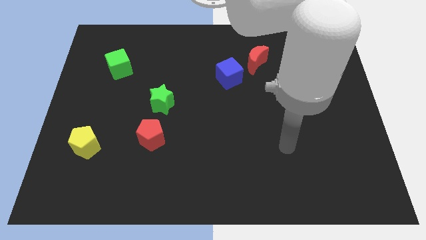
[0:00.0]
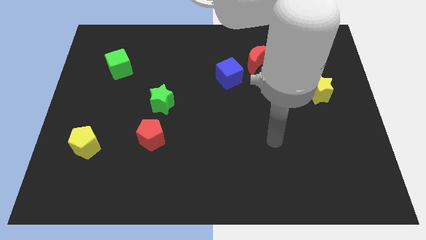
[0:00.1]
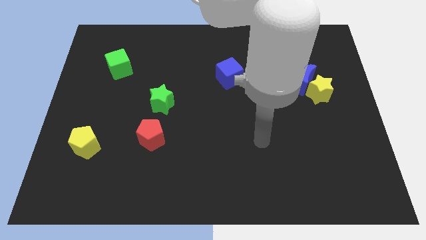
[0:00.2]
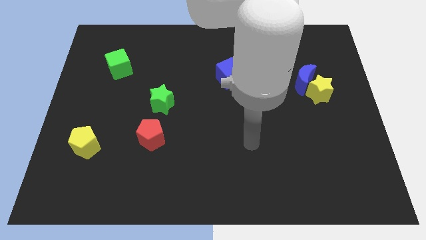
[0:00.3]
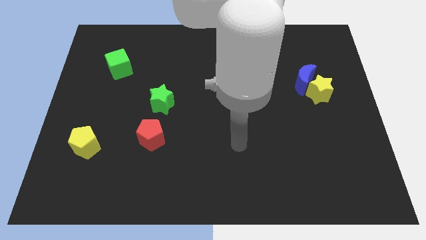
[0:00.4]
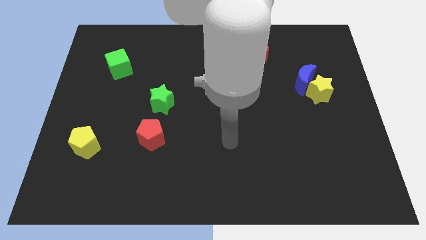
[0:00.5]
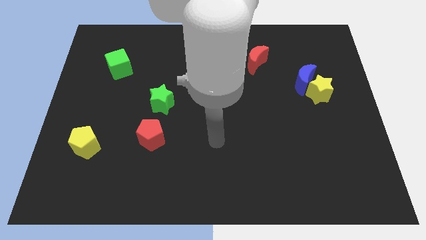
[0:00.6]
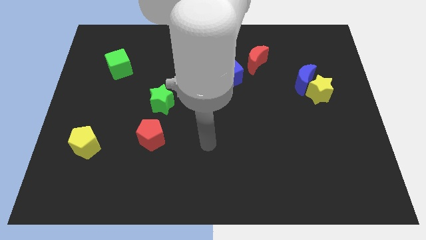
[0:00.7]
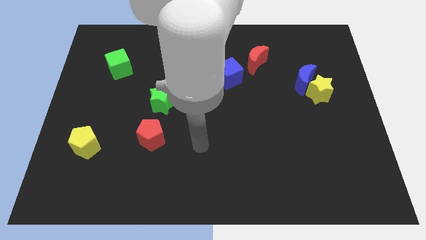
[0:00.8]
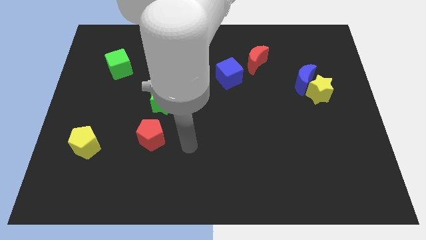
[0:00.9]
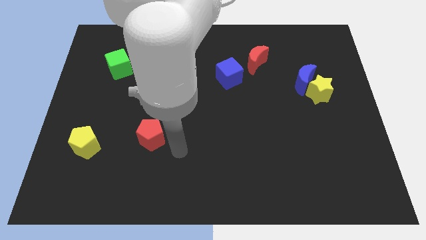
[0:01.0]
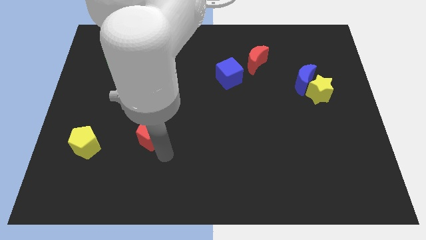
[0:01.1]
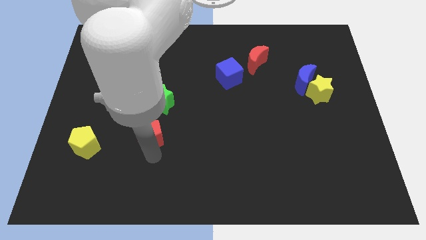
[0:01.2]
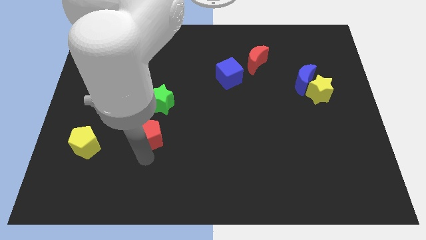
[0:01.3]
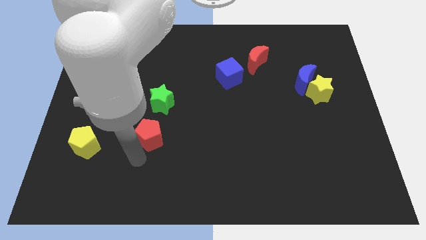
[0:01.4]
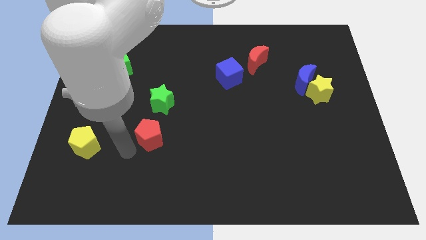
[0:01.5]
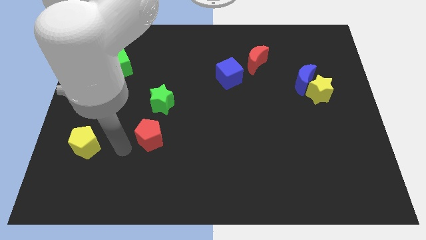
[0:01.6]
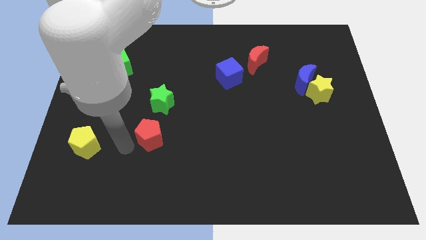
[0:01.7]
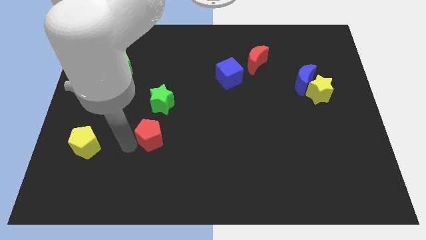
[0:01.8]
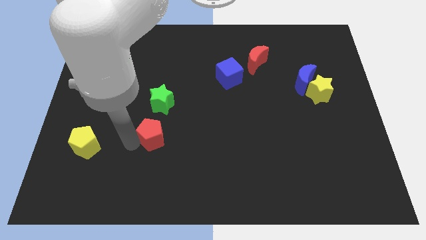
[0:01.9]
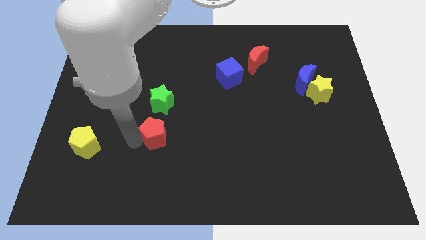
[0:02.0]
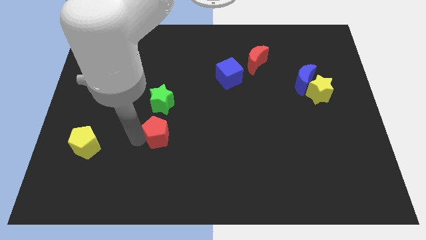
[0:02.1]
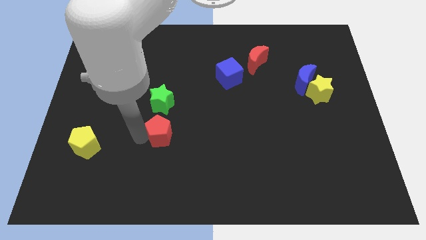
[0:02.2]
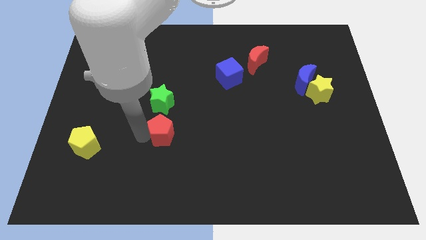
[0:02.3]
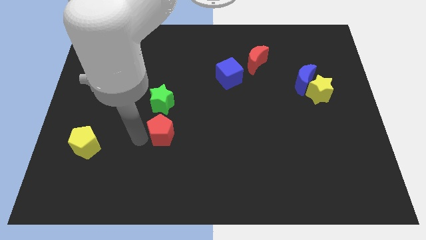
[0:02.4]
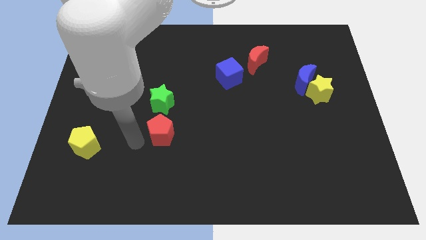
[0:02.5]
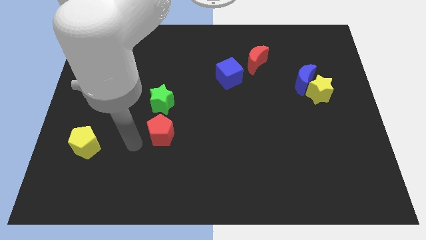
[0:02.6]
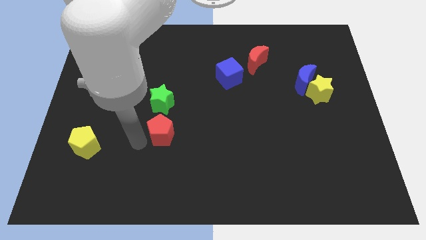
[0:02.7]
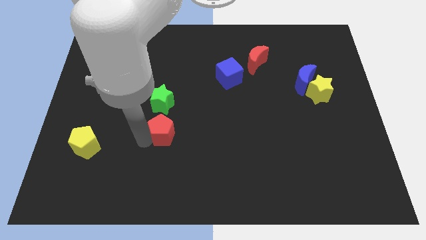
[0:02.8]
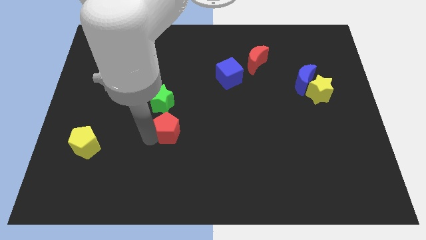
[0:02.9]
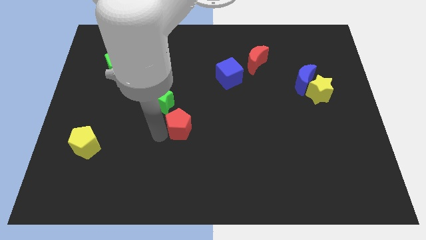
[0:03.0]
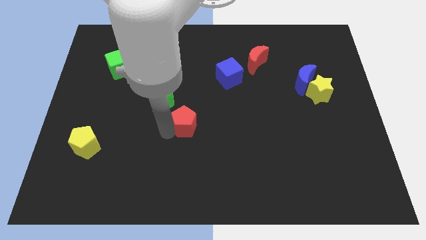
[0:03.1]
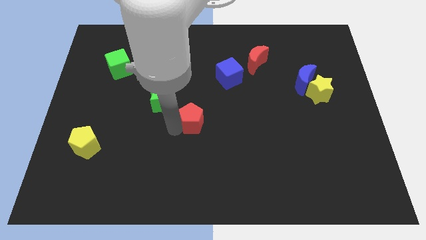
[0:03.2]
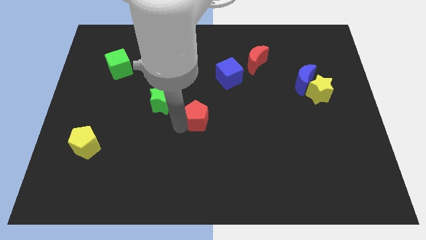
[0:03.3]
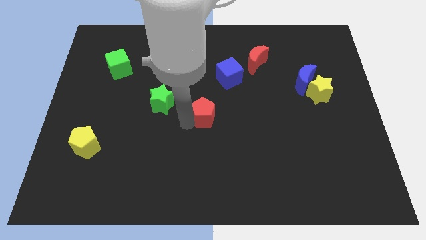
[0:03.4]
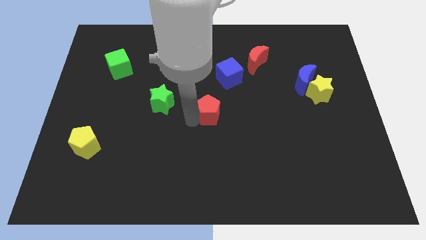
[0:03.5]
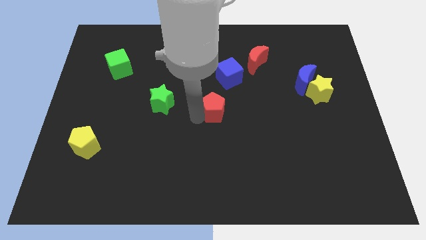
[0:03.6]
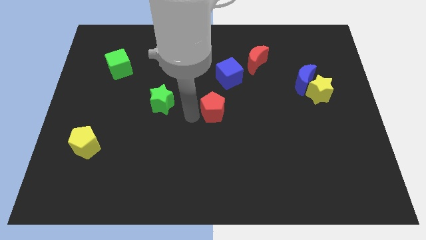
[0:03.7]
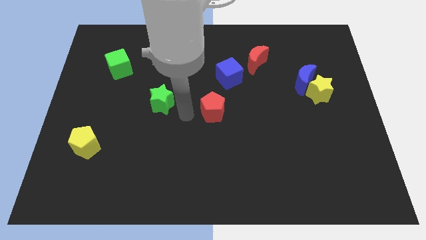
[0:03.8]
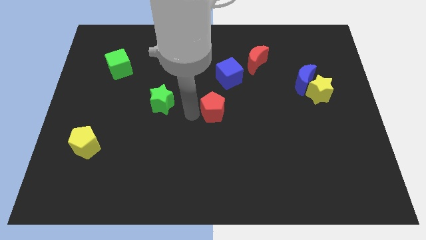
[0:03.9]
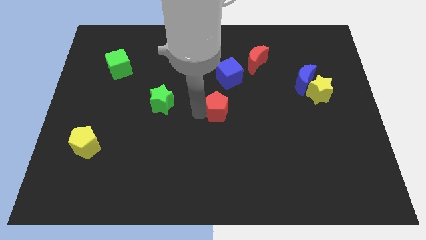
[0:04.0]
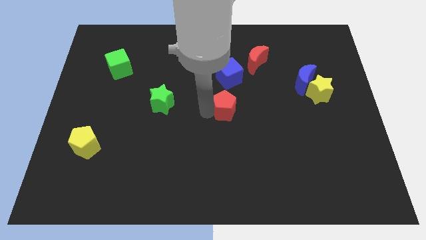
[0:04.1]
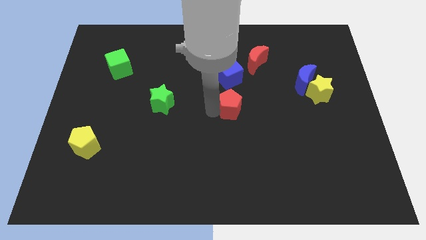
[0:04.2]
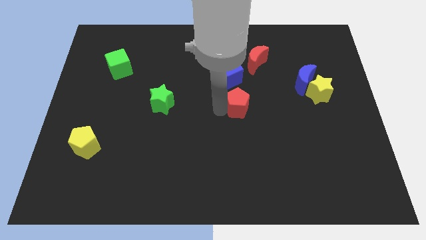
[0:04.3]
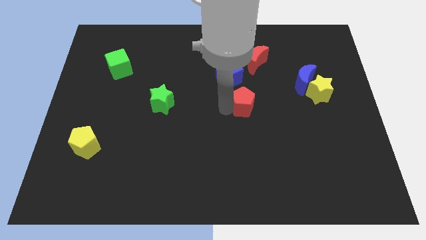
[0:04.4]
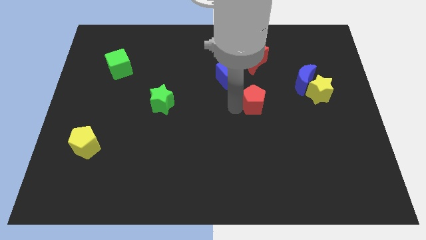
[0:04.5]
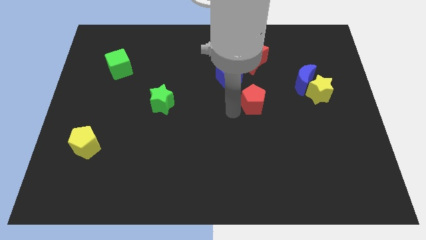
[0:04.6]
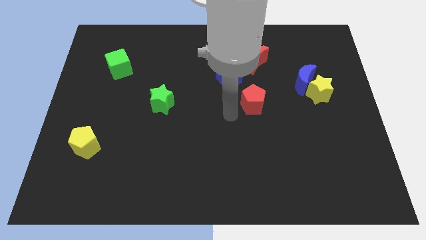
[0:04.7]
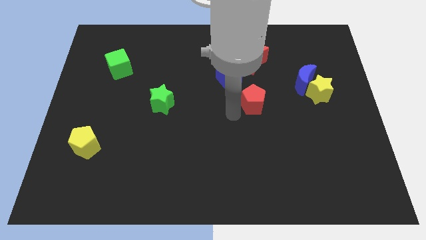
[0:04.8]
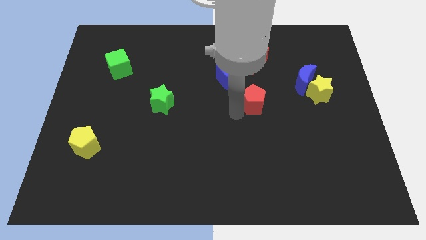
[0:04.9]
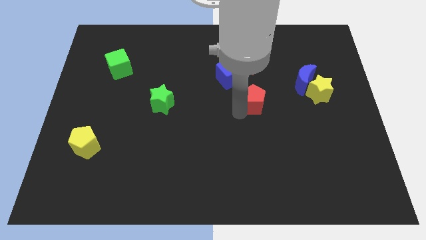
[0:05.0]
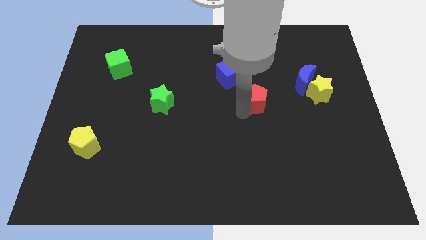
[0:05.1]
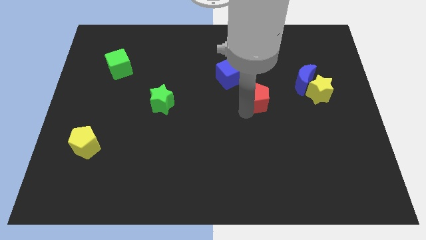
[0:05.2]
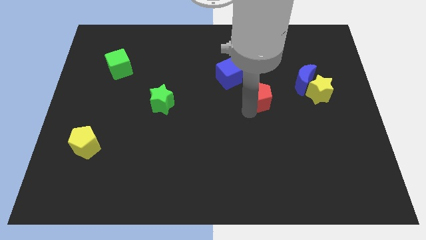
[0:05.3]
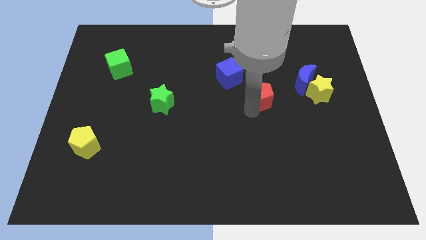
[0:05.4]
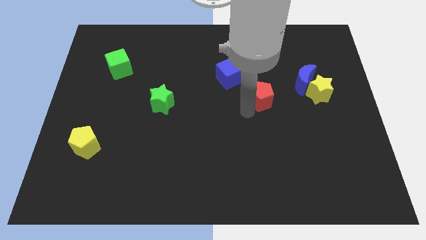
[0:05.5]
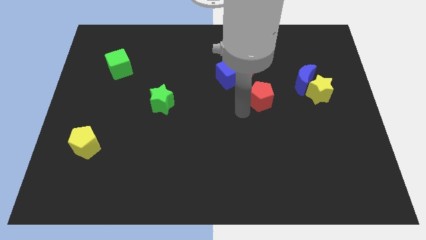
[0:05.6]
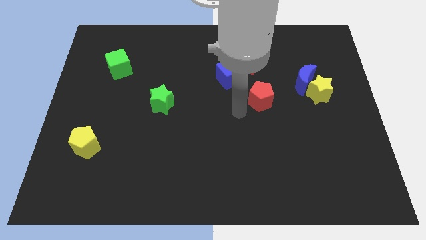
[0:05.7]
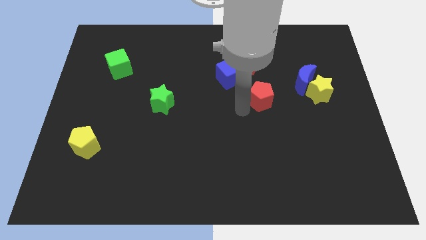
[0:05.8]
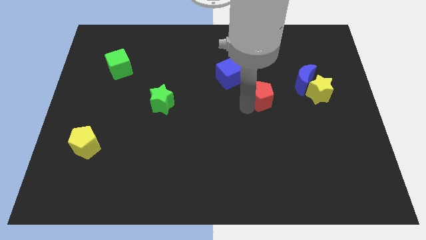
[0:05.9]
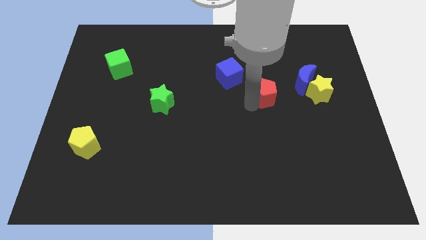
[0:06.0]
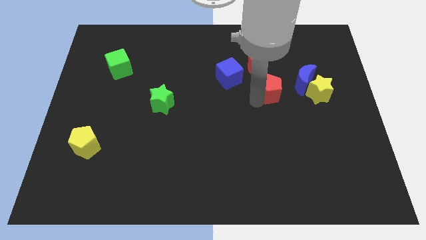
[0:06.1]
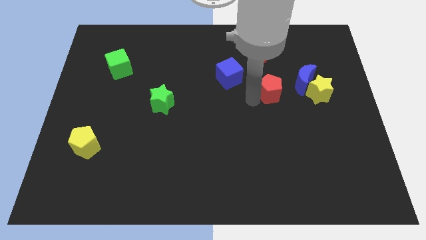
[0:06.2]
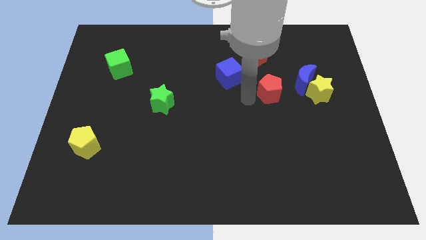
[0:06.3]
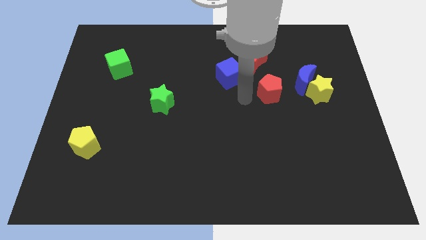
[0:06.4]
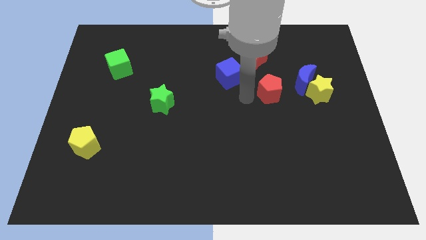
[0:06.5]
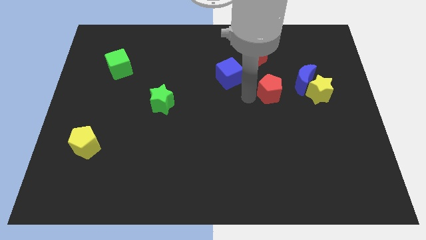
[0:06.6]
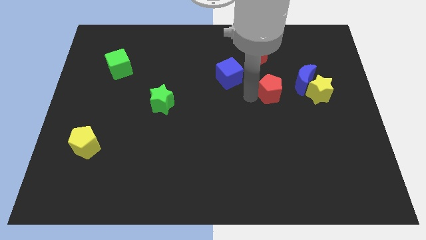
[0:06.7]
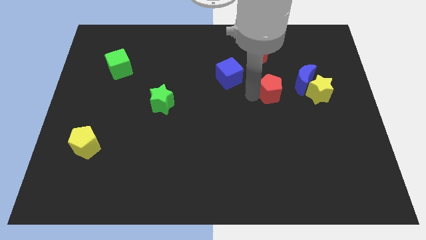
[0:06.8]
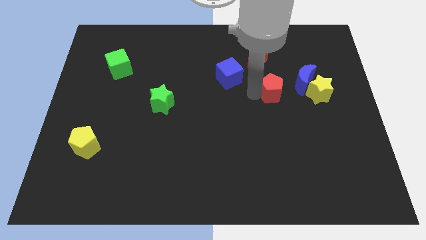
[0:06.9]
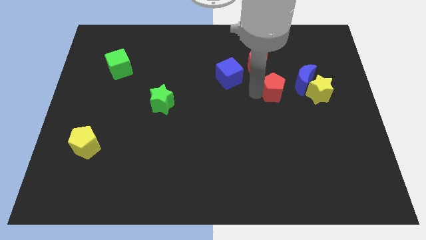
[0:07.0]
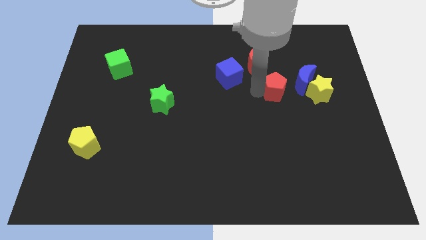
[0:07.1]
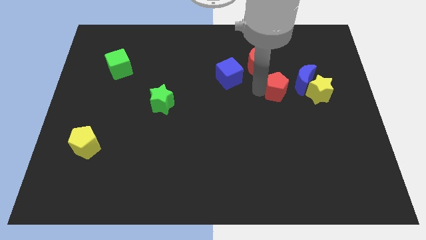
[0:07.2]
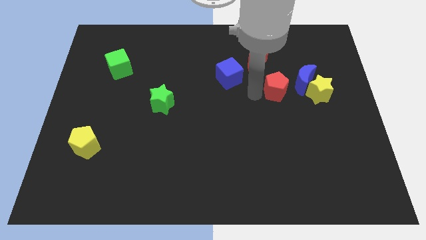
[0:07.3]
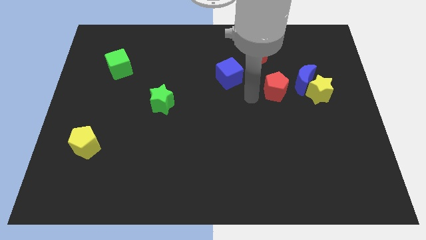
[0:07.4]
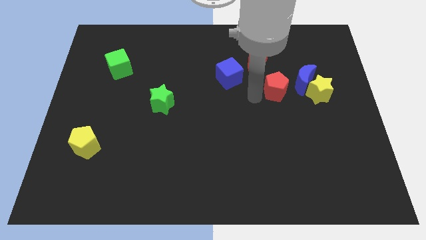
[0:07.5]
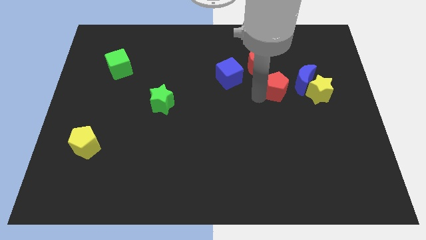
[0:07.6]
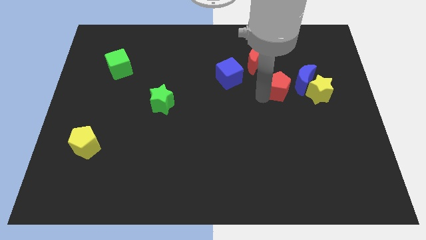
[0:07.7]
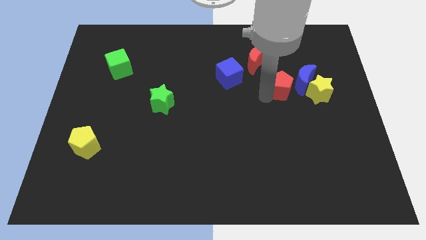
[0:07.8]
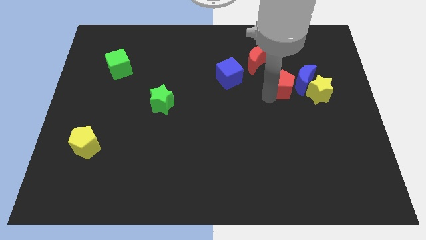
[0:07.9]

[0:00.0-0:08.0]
slide the red pentagon next to the blue moon

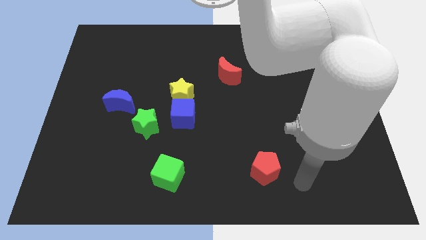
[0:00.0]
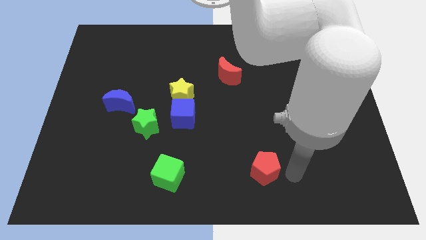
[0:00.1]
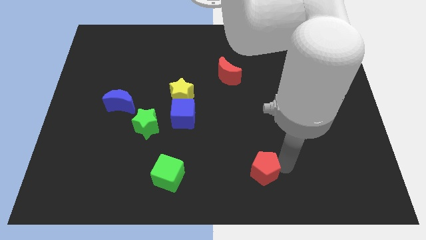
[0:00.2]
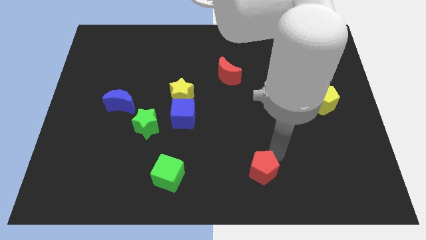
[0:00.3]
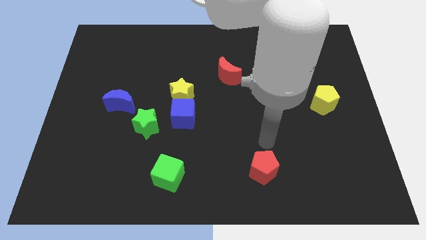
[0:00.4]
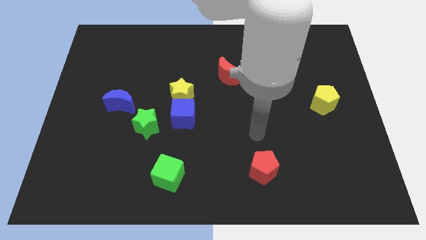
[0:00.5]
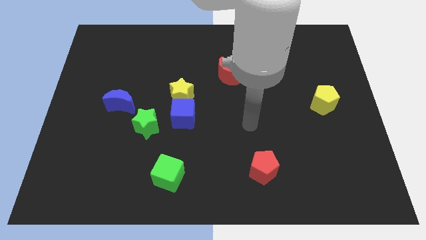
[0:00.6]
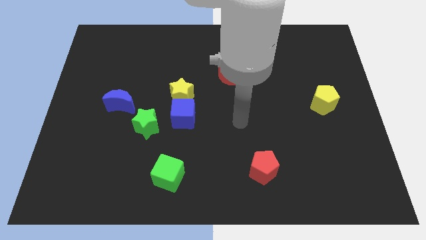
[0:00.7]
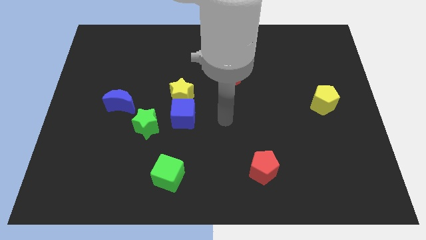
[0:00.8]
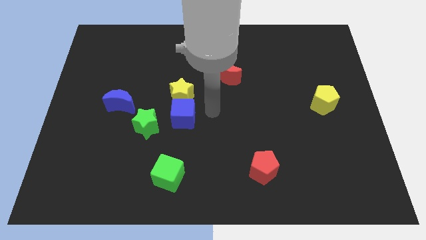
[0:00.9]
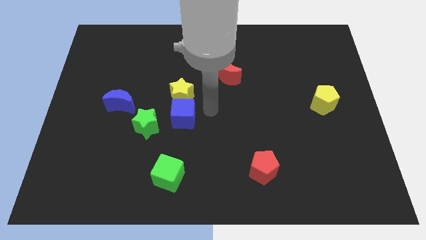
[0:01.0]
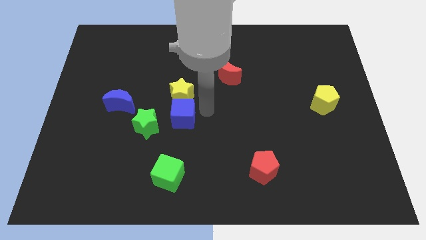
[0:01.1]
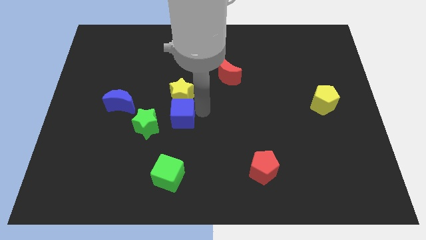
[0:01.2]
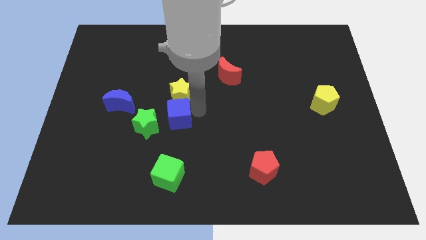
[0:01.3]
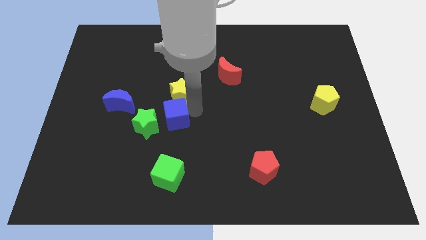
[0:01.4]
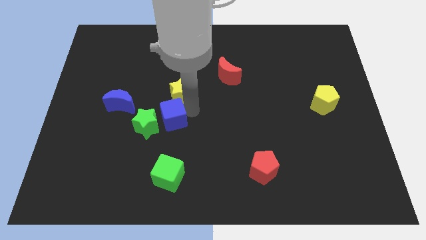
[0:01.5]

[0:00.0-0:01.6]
push the blue cube towards the green star
